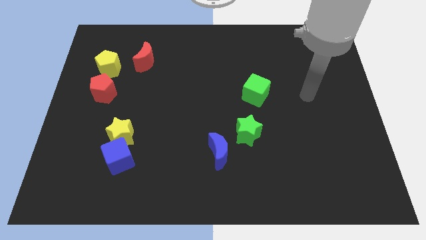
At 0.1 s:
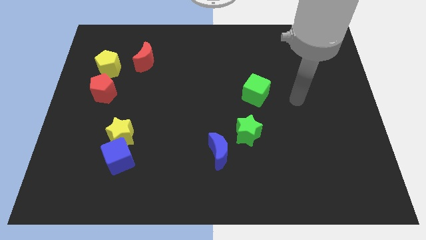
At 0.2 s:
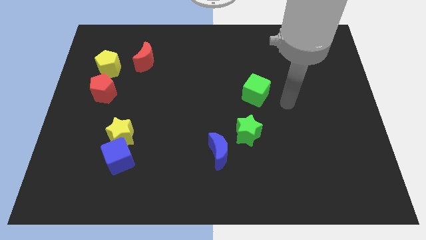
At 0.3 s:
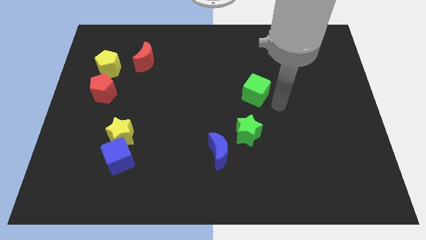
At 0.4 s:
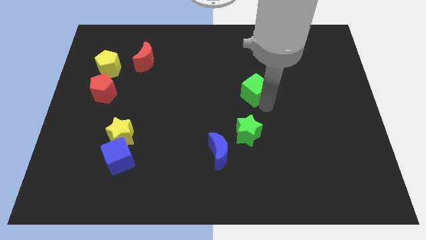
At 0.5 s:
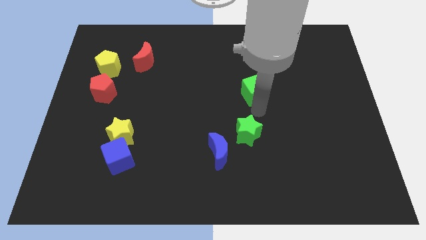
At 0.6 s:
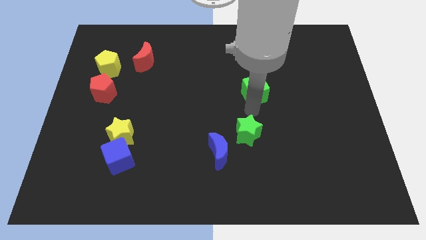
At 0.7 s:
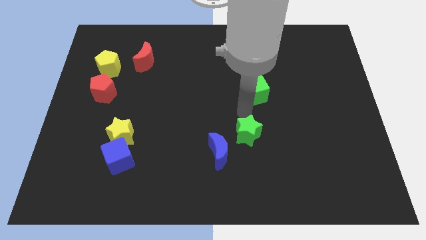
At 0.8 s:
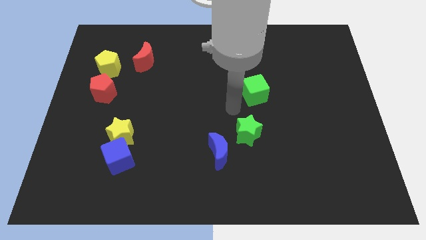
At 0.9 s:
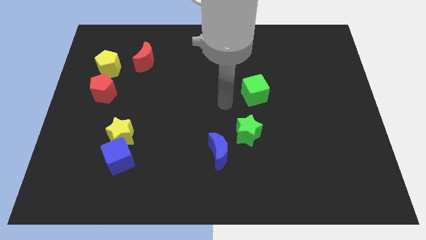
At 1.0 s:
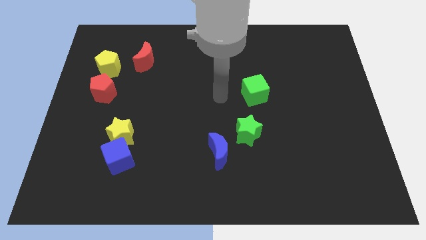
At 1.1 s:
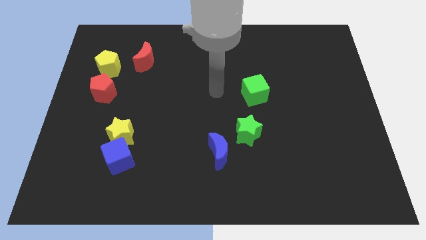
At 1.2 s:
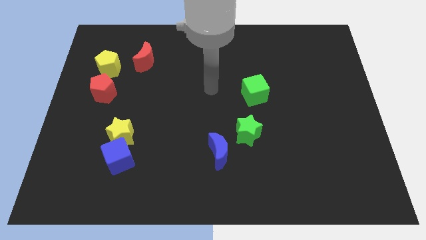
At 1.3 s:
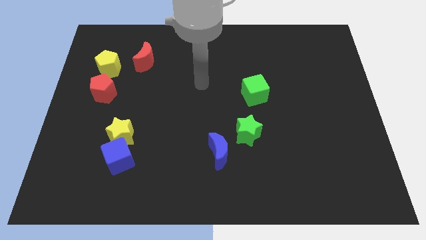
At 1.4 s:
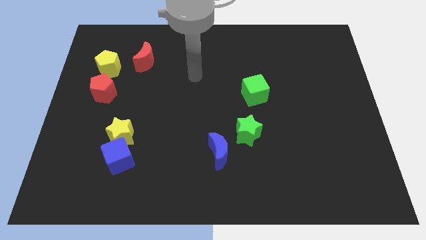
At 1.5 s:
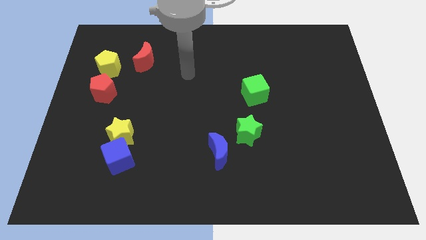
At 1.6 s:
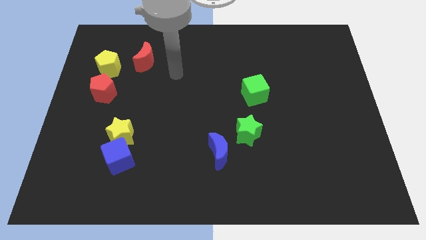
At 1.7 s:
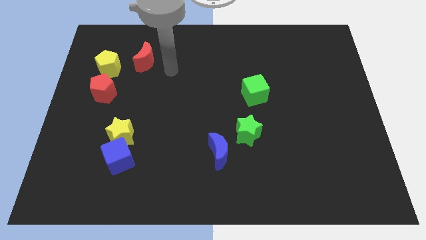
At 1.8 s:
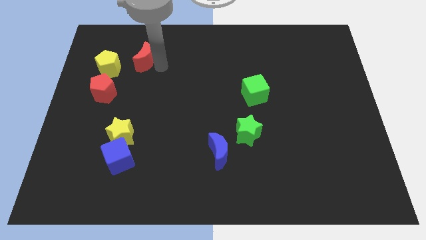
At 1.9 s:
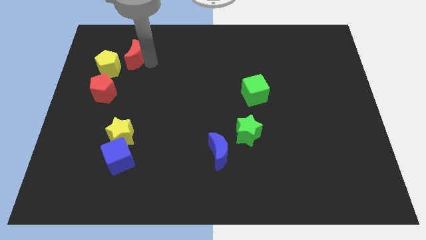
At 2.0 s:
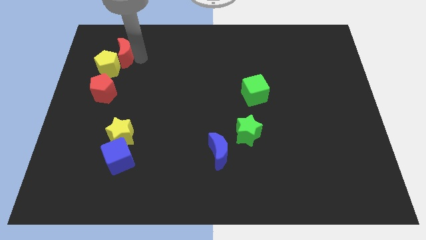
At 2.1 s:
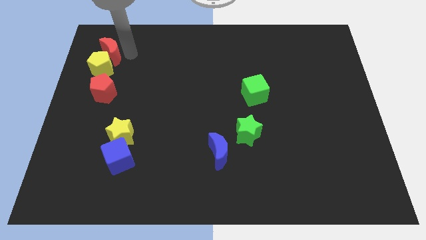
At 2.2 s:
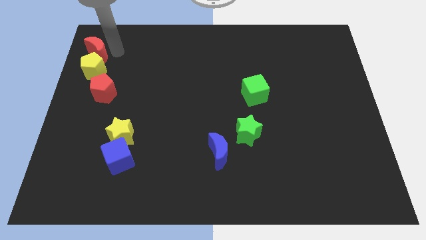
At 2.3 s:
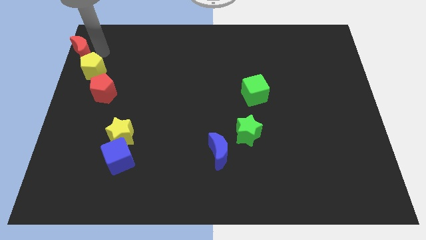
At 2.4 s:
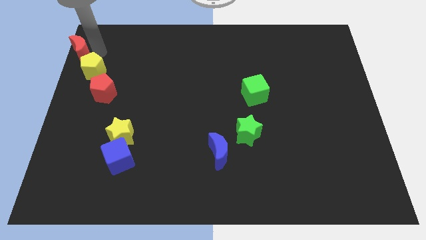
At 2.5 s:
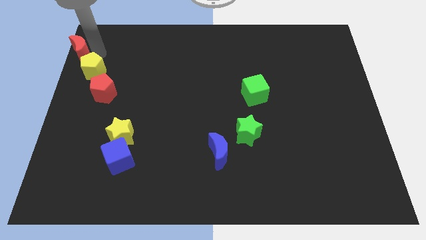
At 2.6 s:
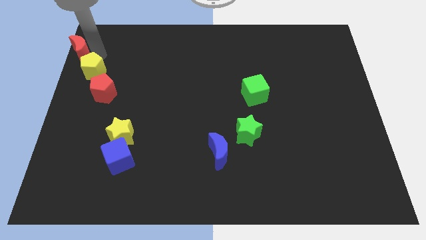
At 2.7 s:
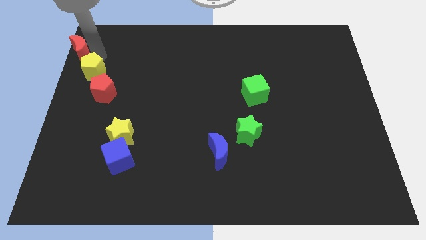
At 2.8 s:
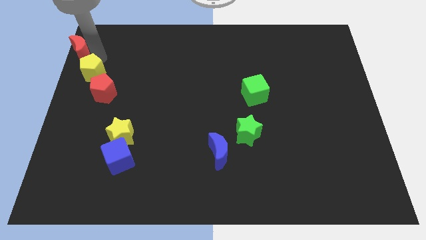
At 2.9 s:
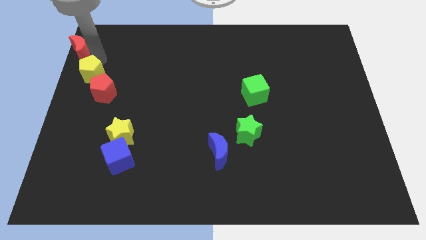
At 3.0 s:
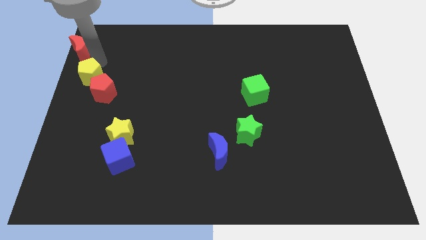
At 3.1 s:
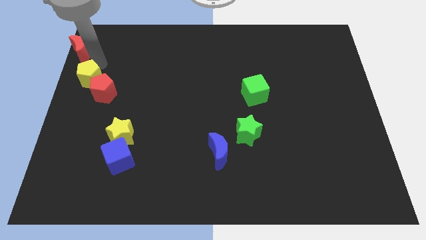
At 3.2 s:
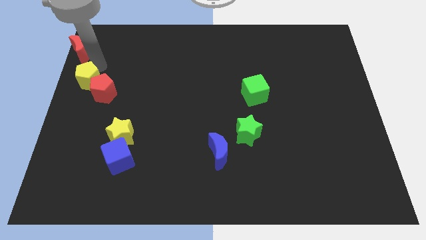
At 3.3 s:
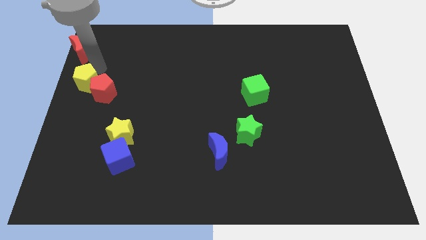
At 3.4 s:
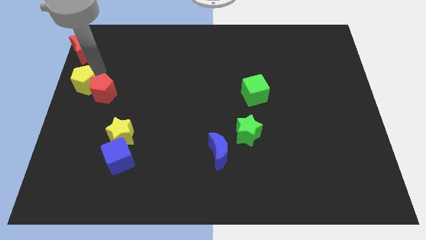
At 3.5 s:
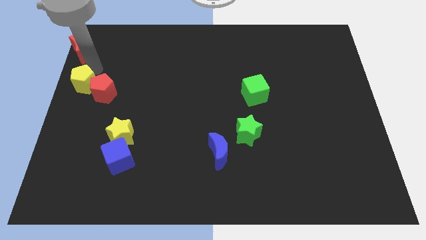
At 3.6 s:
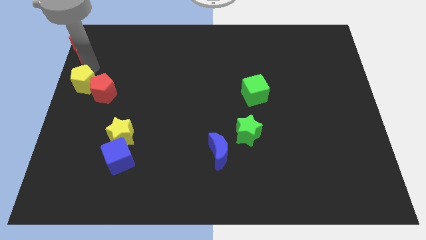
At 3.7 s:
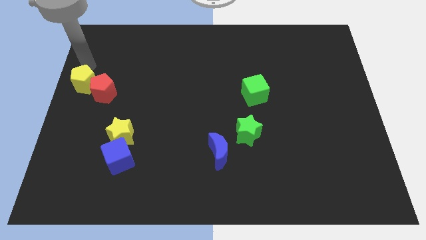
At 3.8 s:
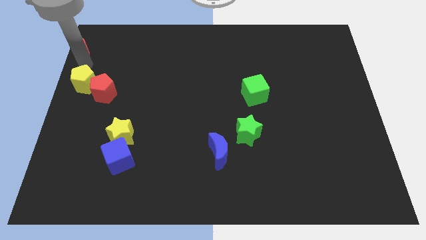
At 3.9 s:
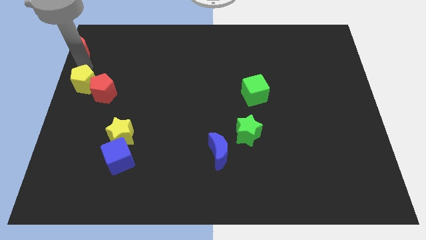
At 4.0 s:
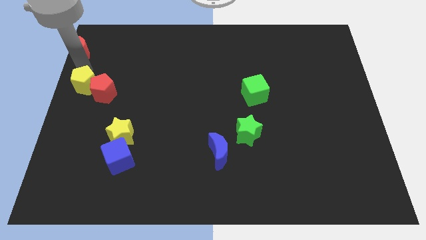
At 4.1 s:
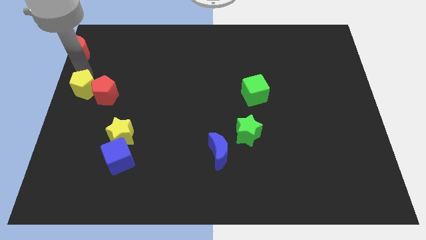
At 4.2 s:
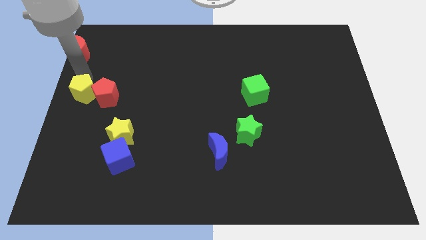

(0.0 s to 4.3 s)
slide the yellow pentagon somewhat down

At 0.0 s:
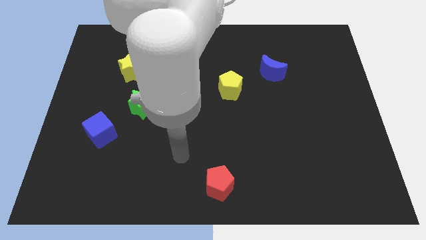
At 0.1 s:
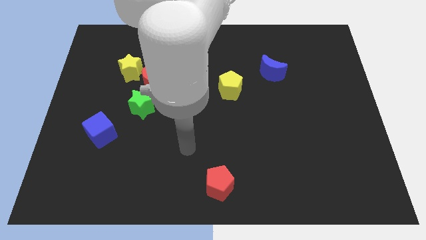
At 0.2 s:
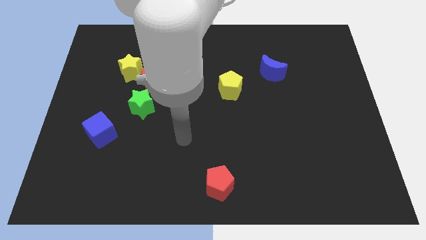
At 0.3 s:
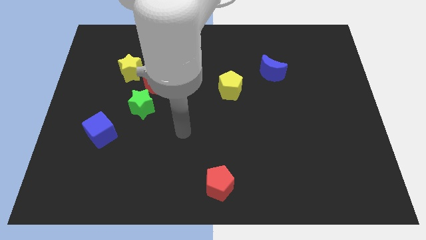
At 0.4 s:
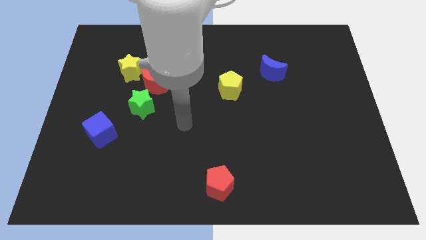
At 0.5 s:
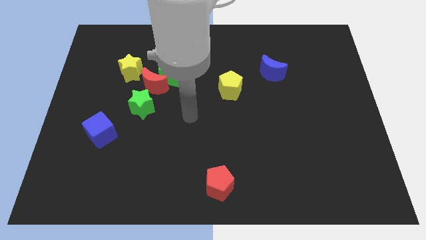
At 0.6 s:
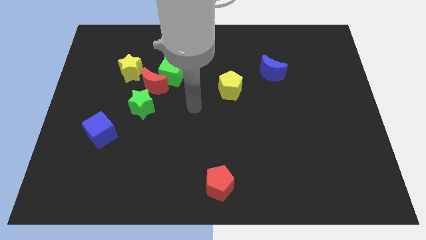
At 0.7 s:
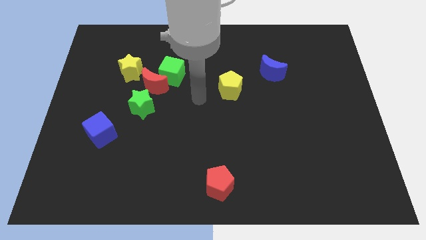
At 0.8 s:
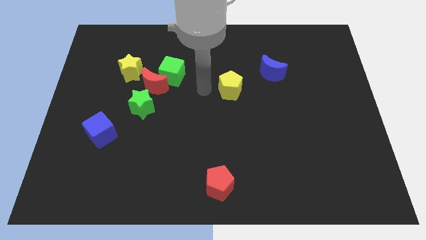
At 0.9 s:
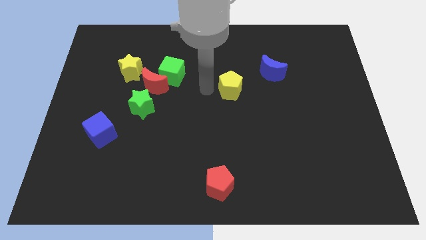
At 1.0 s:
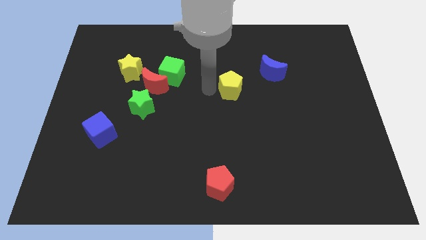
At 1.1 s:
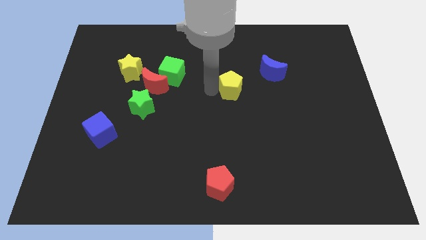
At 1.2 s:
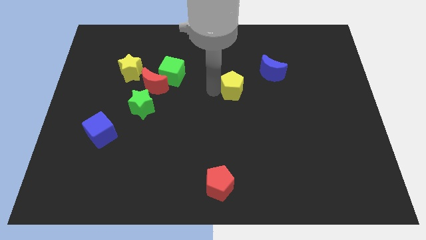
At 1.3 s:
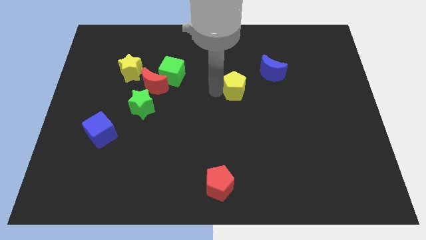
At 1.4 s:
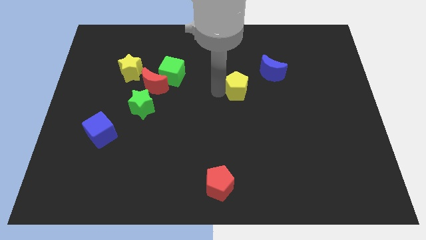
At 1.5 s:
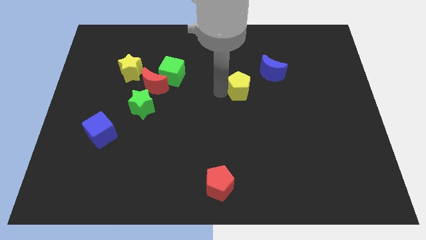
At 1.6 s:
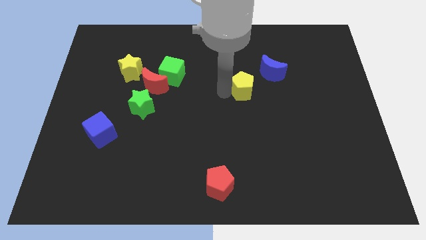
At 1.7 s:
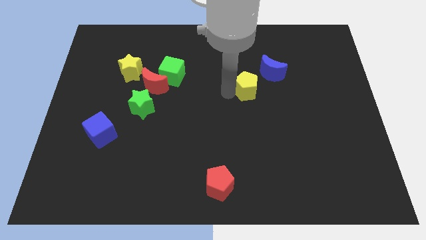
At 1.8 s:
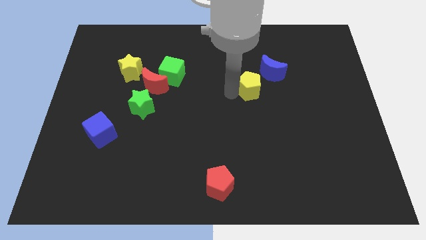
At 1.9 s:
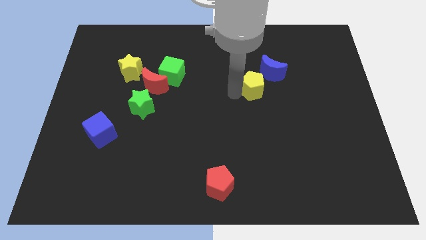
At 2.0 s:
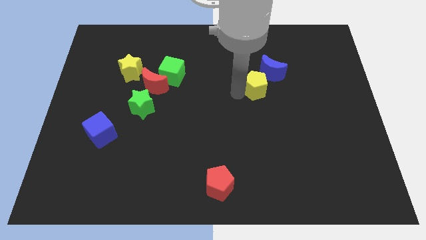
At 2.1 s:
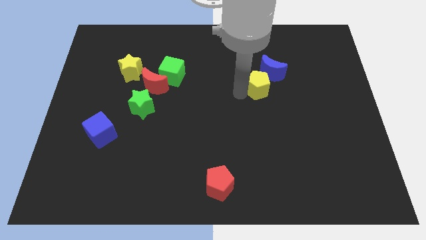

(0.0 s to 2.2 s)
slightly move the yellow pentagon to the right

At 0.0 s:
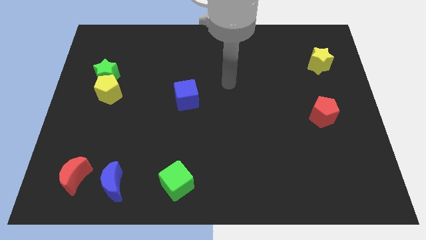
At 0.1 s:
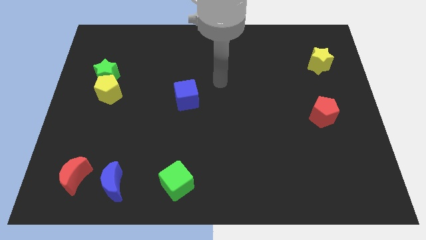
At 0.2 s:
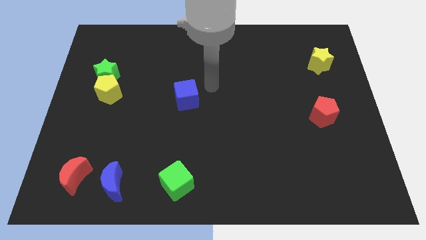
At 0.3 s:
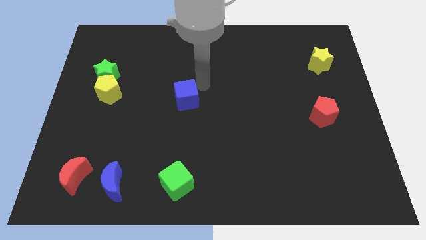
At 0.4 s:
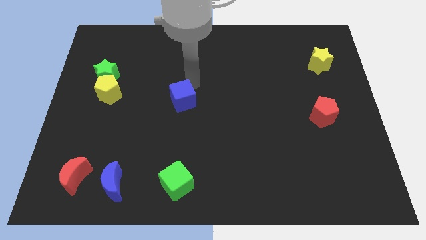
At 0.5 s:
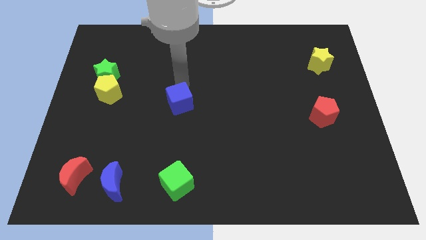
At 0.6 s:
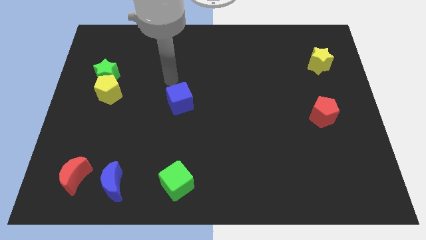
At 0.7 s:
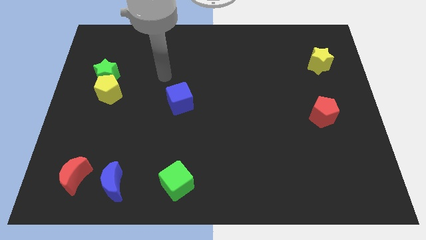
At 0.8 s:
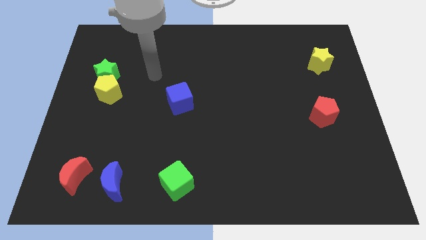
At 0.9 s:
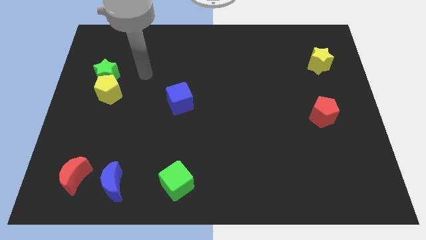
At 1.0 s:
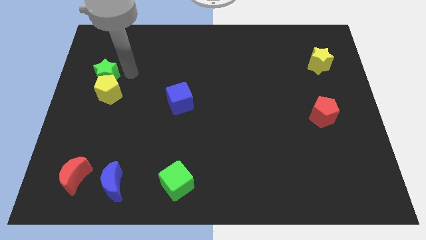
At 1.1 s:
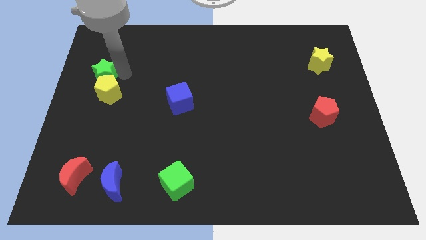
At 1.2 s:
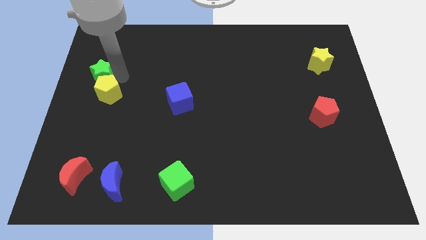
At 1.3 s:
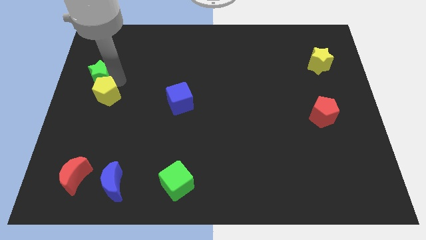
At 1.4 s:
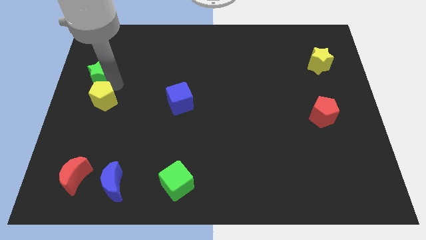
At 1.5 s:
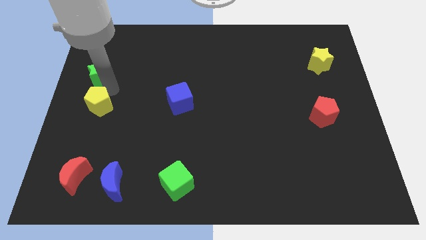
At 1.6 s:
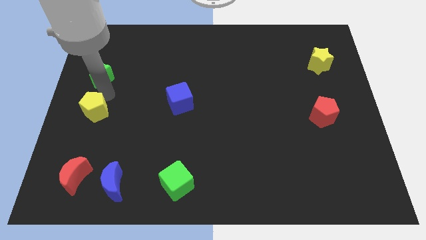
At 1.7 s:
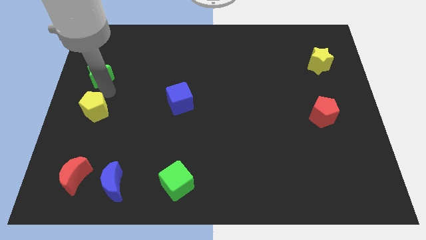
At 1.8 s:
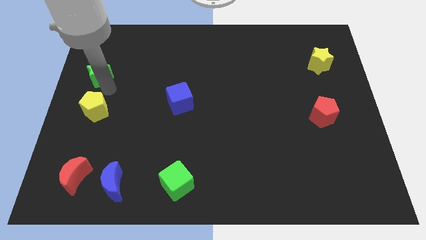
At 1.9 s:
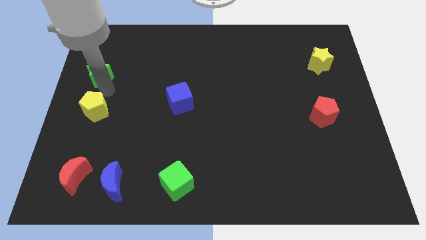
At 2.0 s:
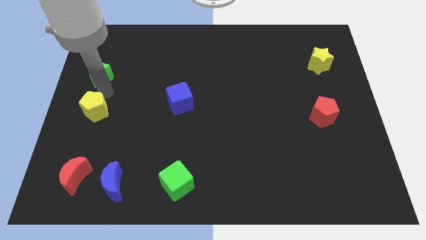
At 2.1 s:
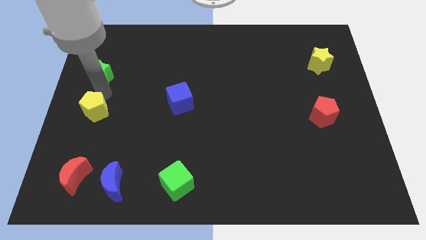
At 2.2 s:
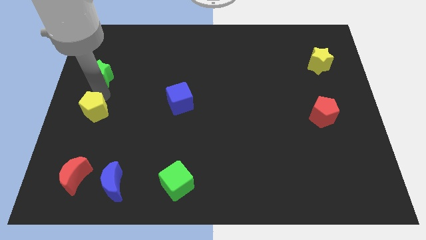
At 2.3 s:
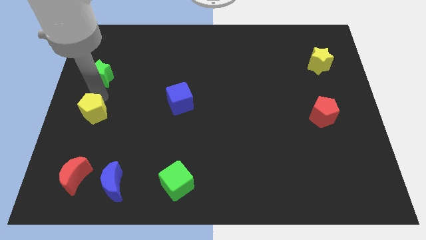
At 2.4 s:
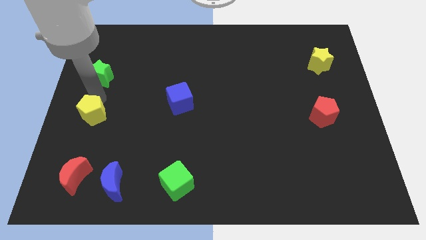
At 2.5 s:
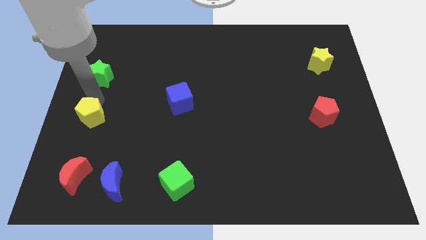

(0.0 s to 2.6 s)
slide the yellow pentagon a little bit down
